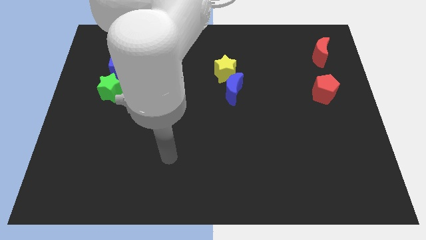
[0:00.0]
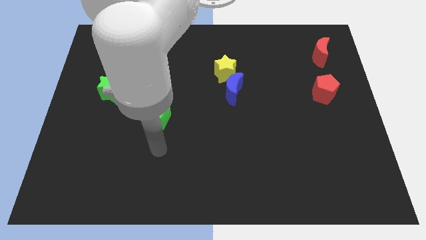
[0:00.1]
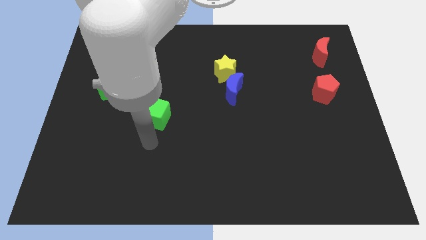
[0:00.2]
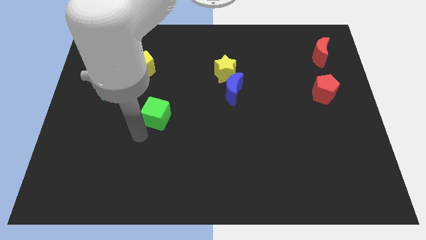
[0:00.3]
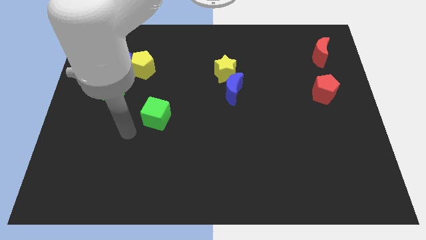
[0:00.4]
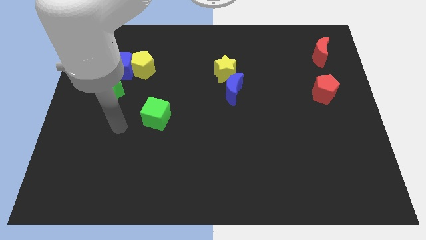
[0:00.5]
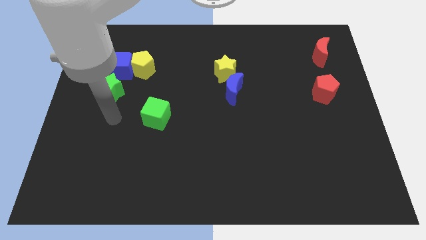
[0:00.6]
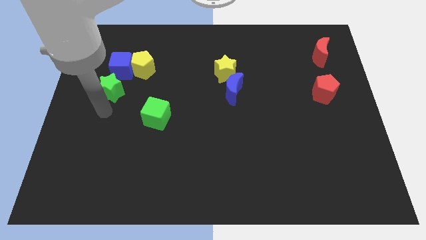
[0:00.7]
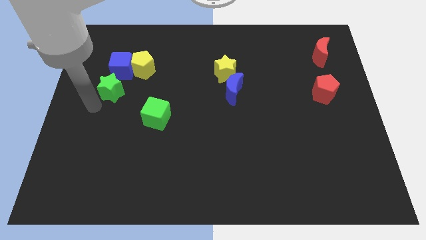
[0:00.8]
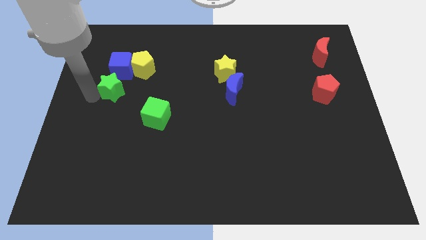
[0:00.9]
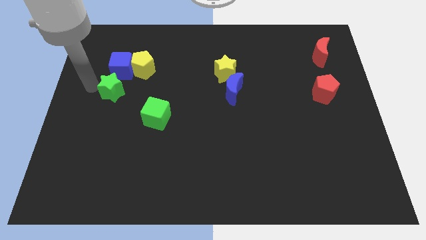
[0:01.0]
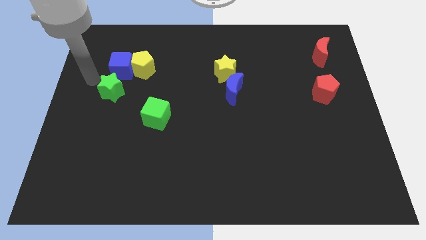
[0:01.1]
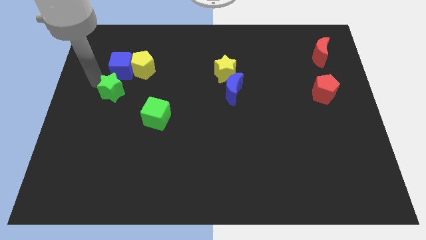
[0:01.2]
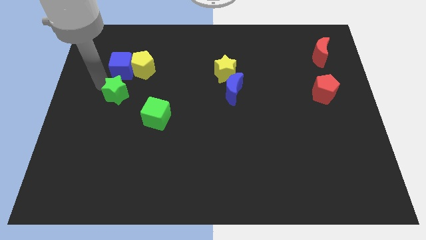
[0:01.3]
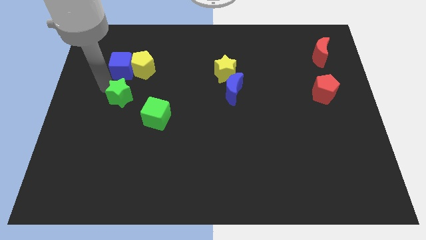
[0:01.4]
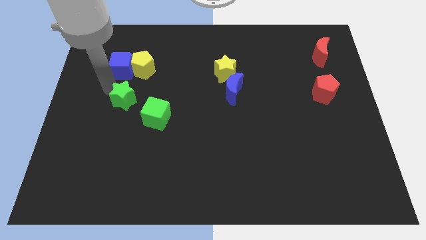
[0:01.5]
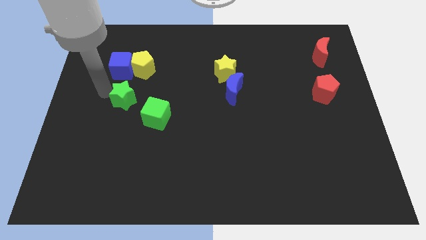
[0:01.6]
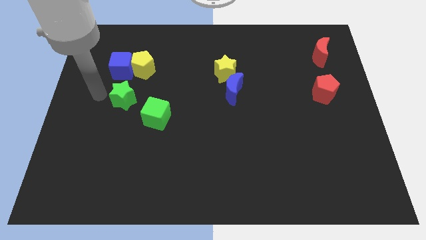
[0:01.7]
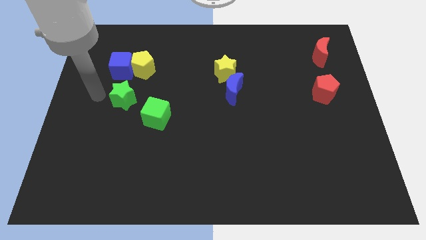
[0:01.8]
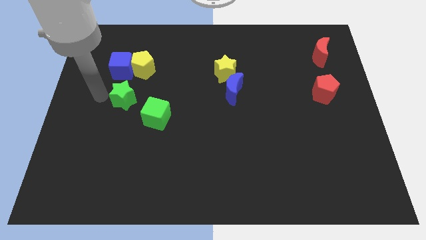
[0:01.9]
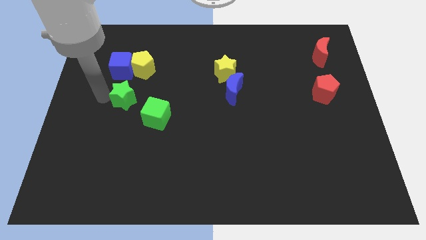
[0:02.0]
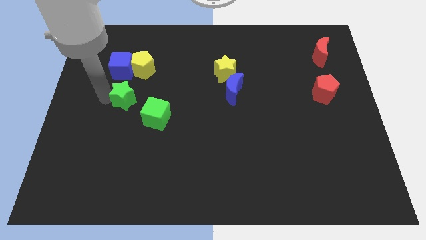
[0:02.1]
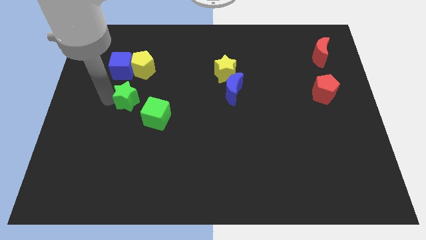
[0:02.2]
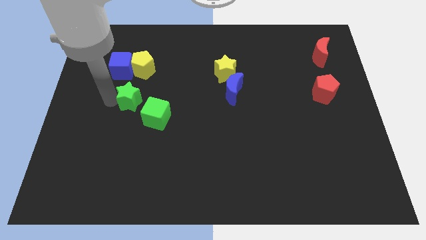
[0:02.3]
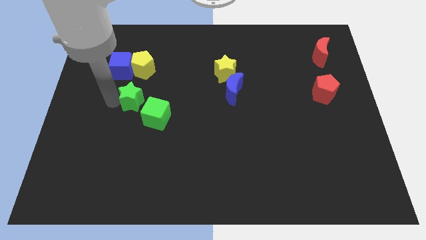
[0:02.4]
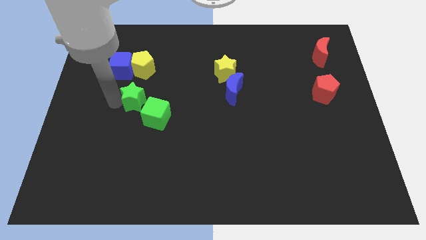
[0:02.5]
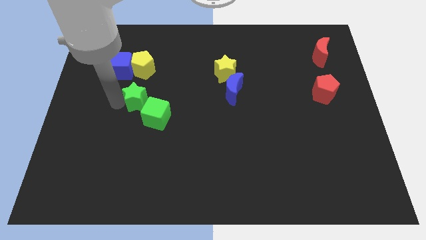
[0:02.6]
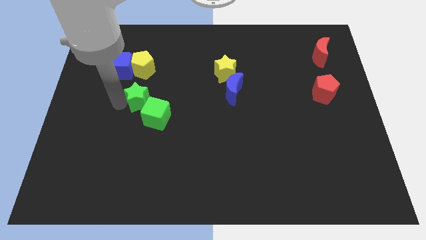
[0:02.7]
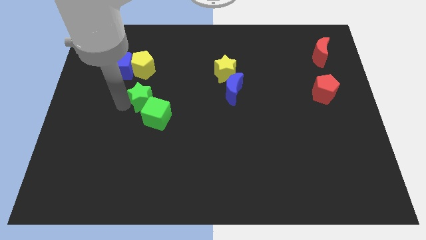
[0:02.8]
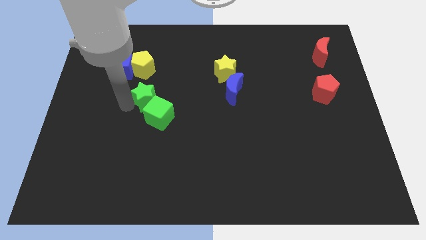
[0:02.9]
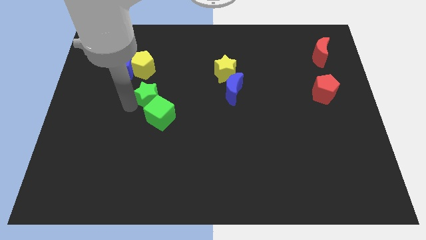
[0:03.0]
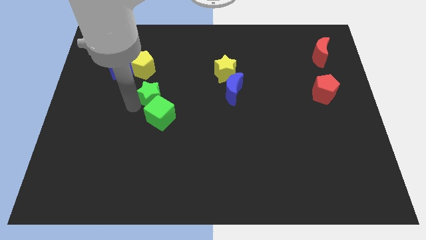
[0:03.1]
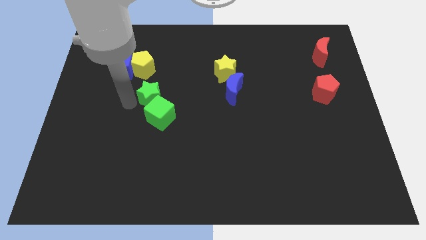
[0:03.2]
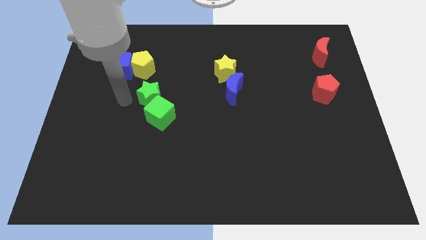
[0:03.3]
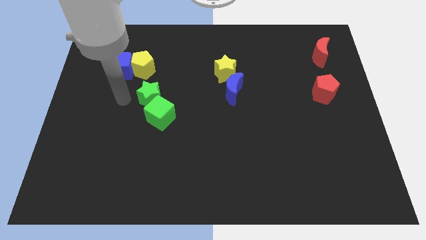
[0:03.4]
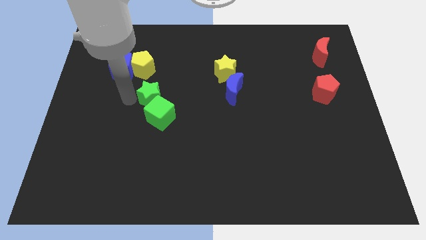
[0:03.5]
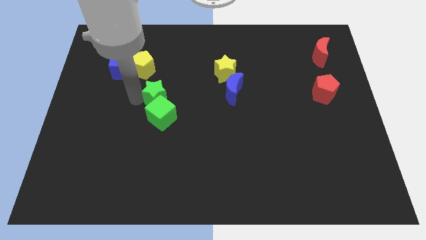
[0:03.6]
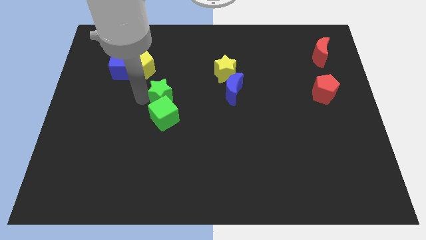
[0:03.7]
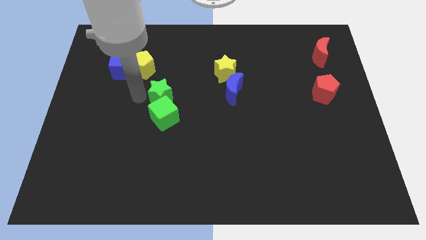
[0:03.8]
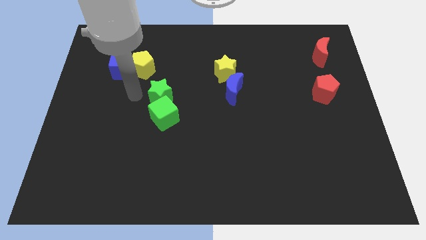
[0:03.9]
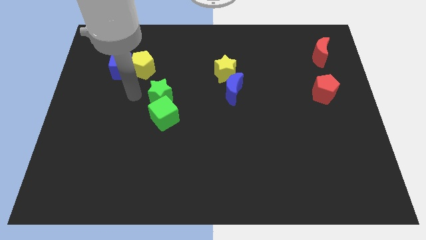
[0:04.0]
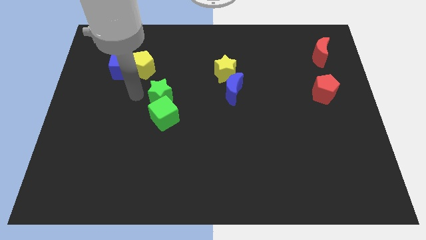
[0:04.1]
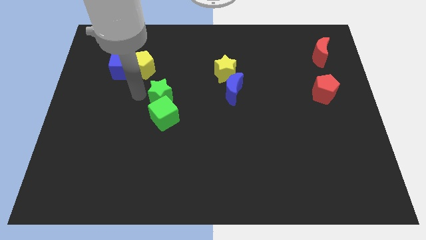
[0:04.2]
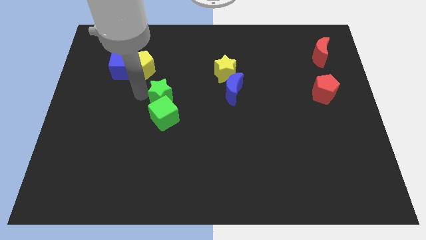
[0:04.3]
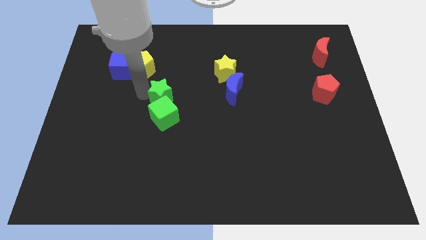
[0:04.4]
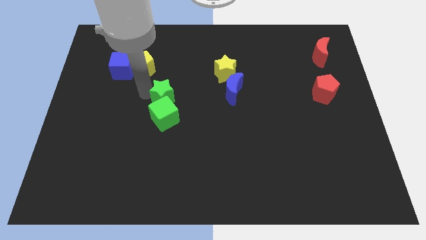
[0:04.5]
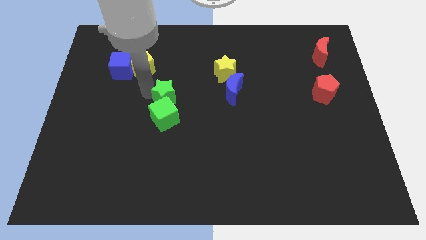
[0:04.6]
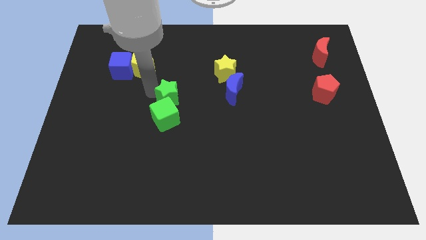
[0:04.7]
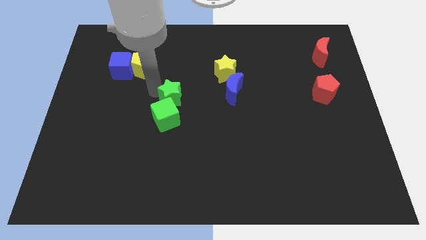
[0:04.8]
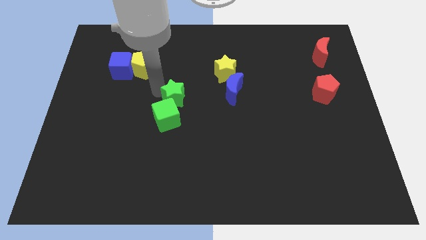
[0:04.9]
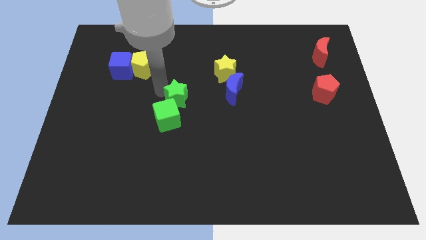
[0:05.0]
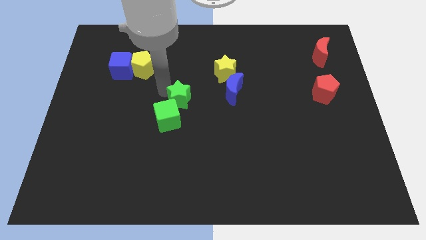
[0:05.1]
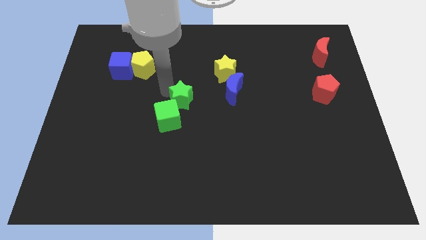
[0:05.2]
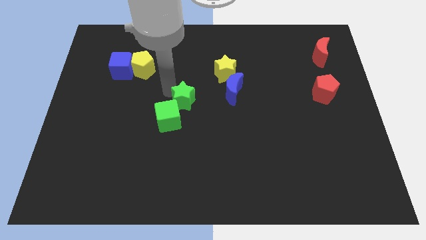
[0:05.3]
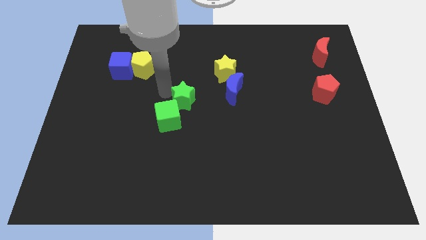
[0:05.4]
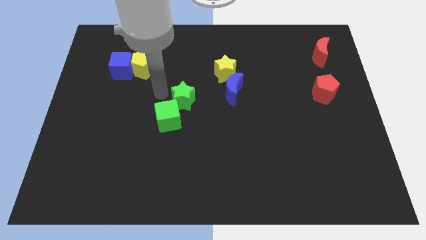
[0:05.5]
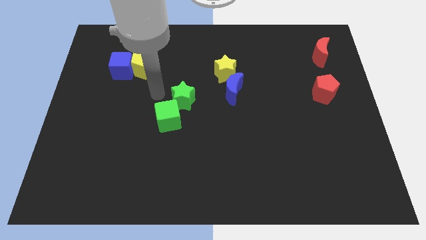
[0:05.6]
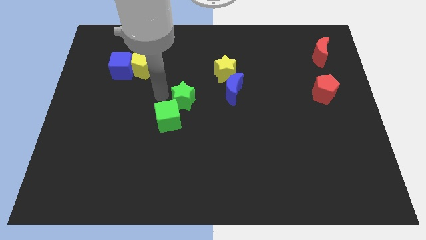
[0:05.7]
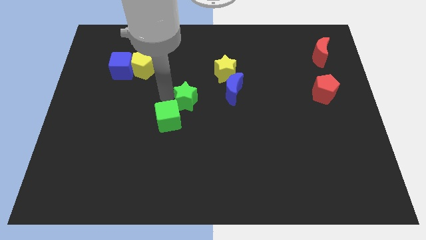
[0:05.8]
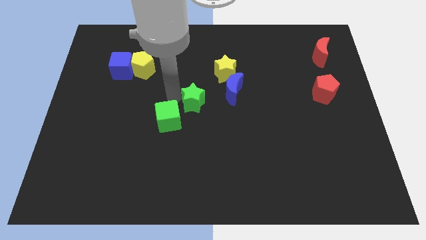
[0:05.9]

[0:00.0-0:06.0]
slide the green star to the bottom left side of the blue moon

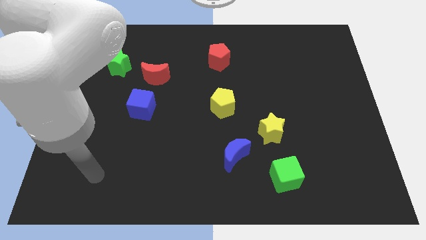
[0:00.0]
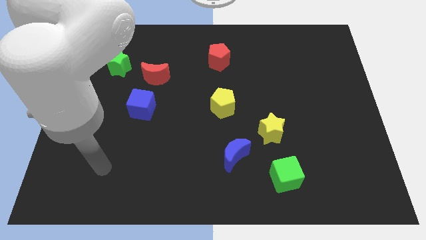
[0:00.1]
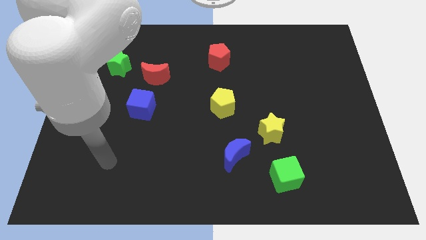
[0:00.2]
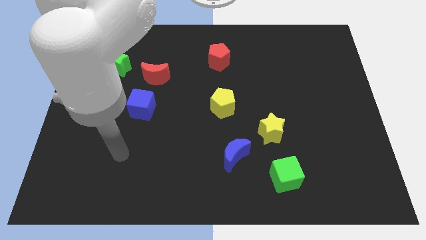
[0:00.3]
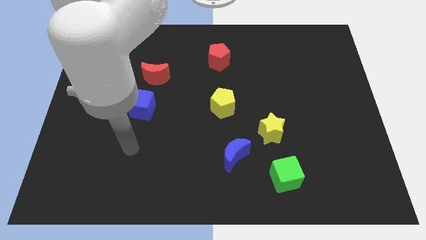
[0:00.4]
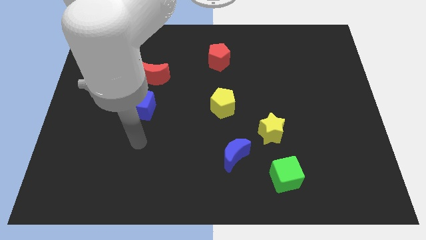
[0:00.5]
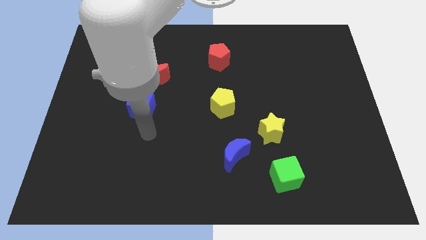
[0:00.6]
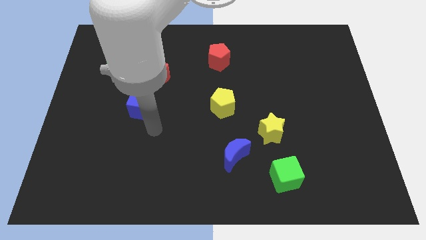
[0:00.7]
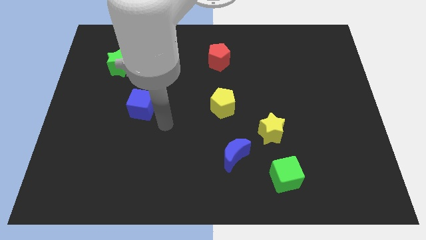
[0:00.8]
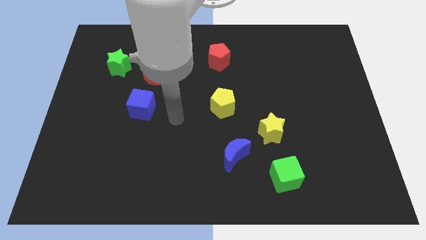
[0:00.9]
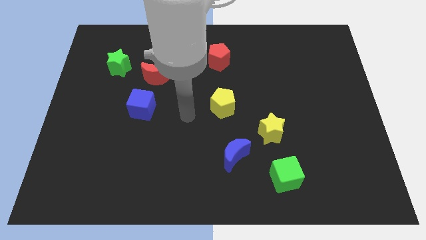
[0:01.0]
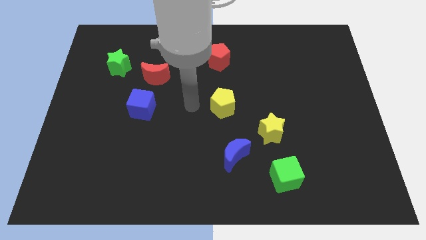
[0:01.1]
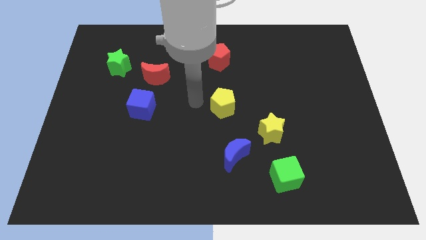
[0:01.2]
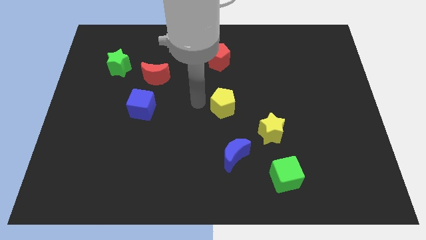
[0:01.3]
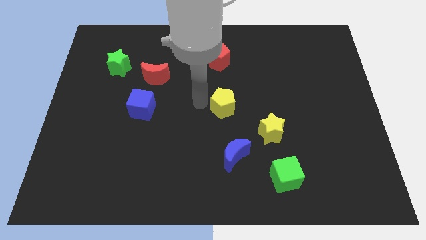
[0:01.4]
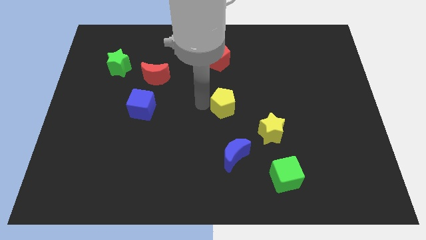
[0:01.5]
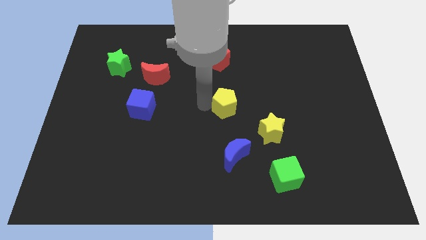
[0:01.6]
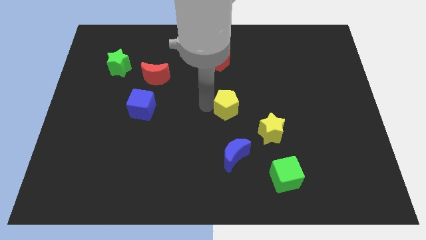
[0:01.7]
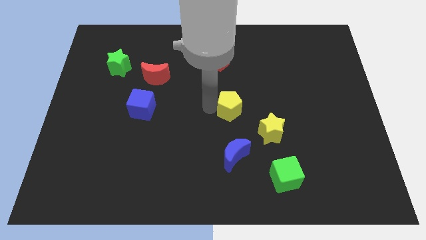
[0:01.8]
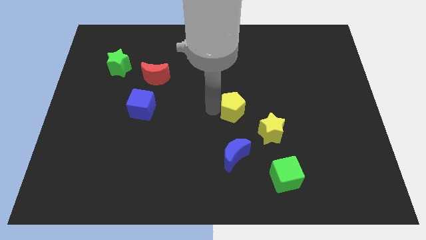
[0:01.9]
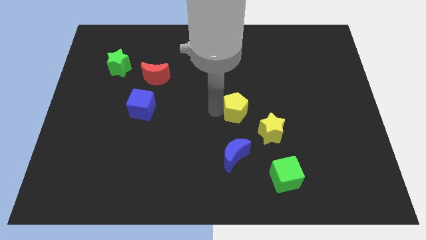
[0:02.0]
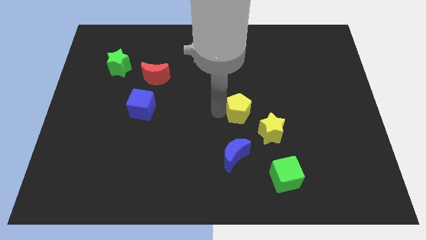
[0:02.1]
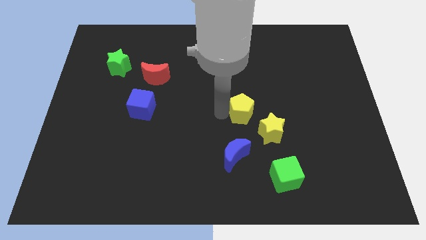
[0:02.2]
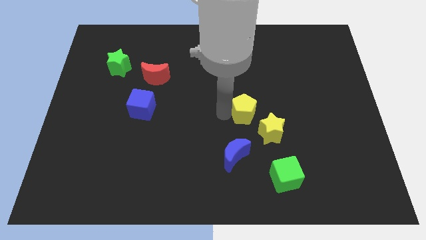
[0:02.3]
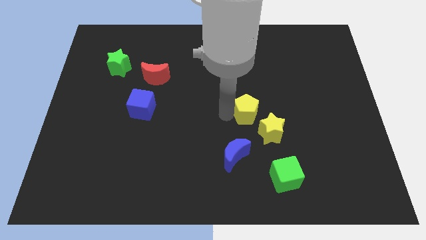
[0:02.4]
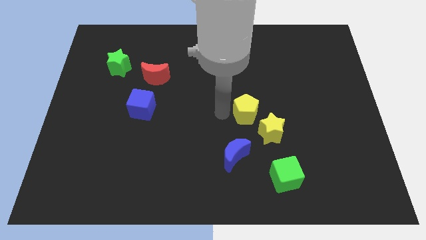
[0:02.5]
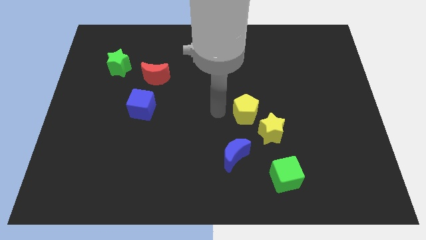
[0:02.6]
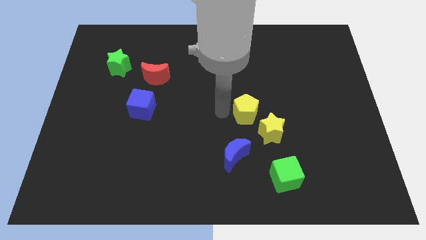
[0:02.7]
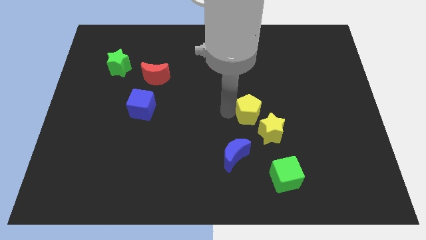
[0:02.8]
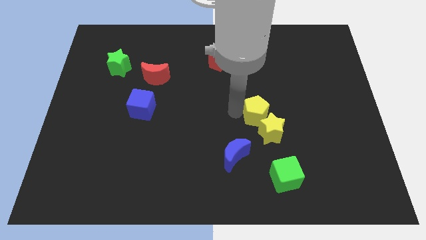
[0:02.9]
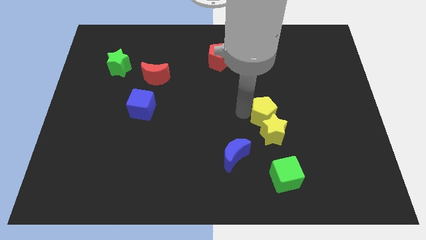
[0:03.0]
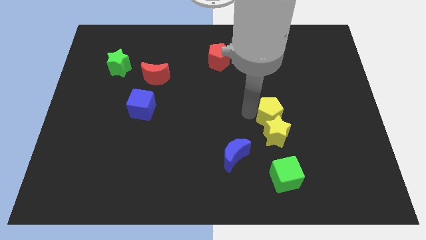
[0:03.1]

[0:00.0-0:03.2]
put the yellow pentagon to the top of the green cube
